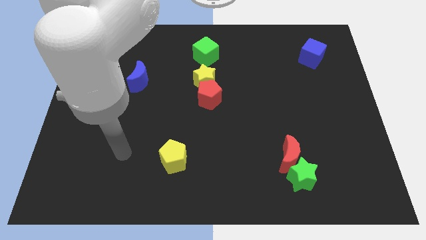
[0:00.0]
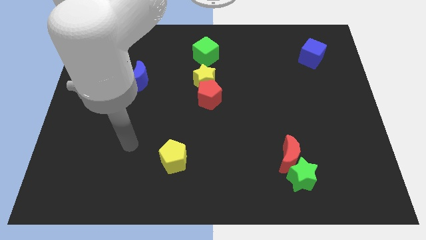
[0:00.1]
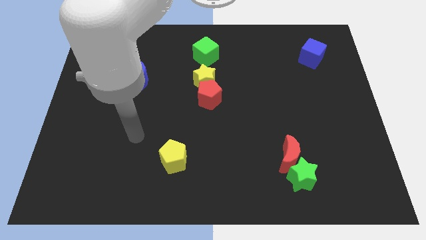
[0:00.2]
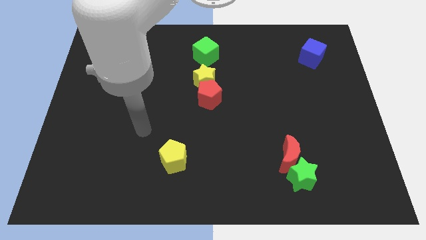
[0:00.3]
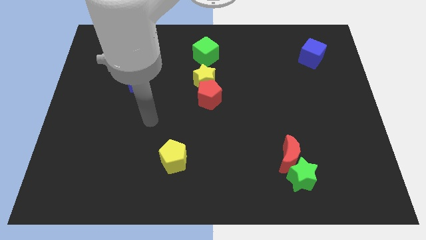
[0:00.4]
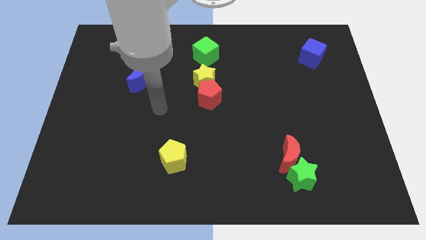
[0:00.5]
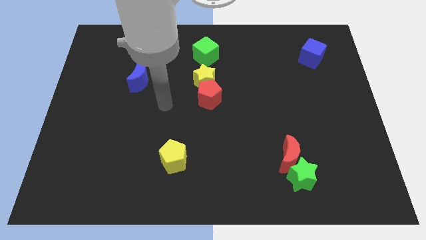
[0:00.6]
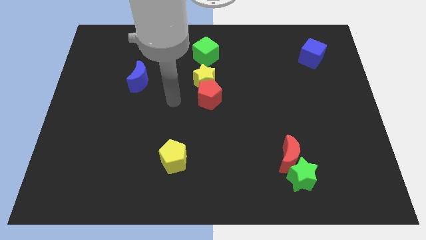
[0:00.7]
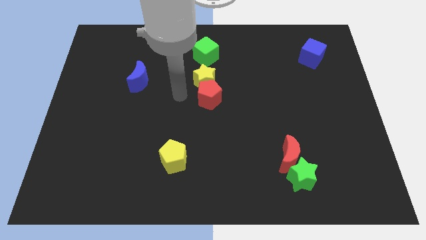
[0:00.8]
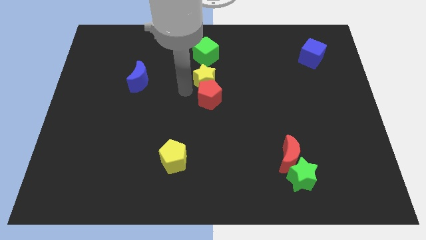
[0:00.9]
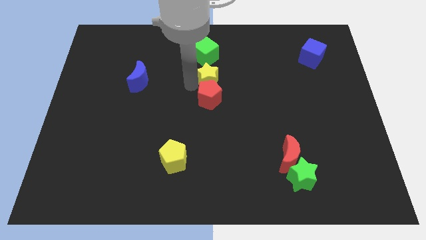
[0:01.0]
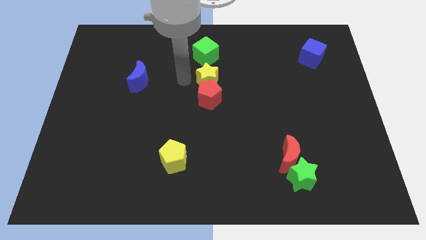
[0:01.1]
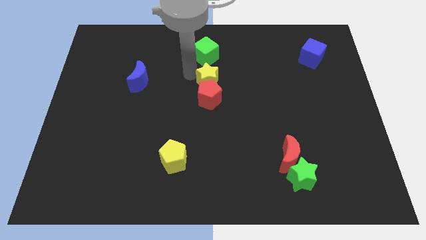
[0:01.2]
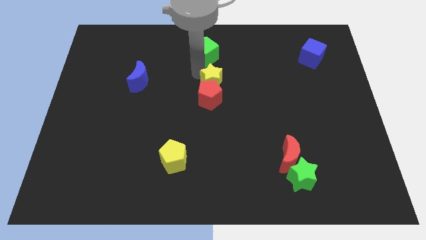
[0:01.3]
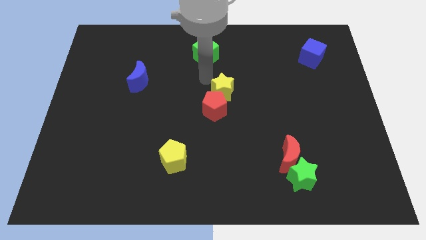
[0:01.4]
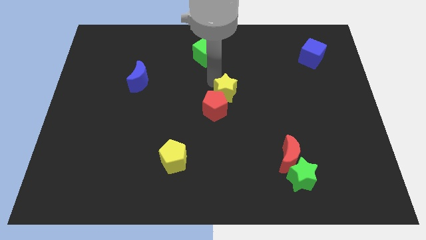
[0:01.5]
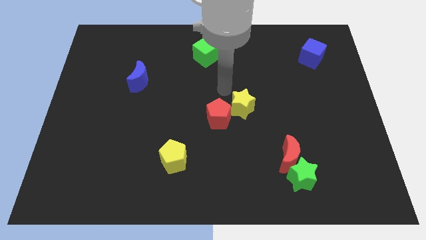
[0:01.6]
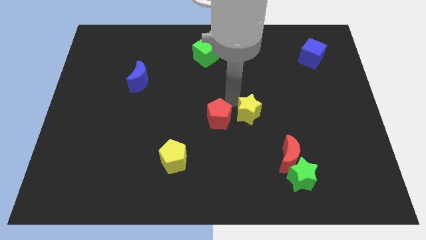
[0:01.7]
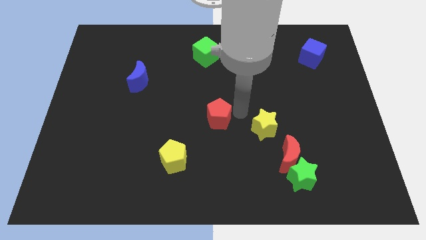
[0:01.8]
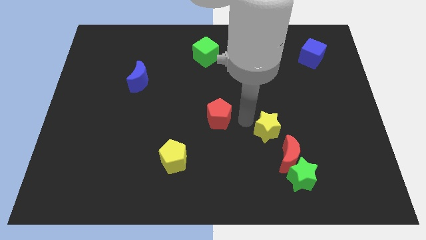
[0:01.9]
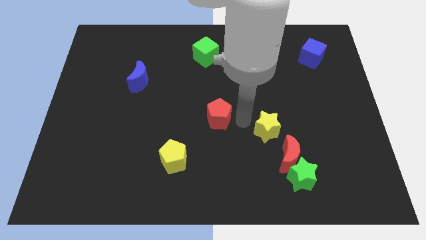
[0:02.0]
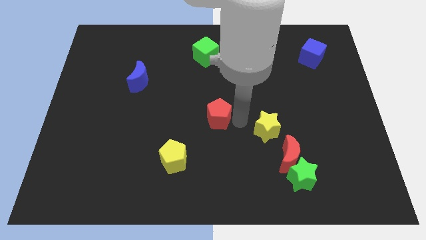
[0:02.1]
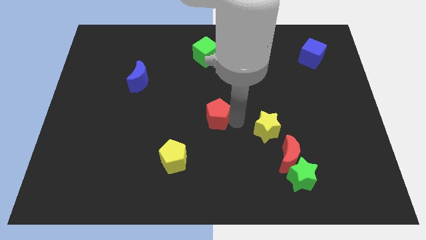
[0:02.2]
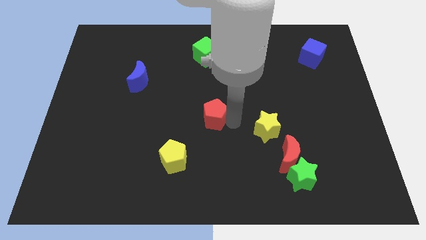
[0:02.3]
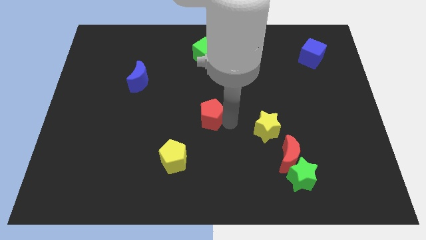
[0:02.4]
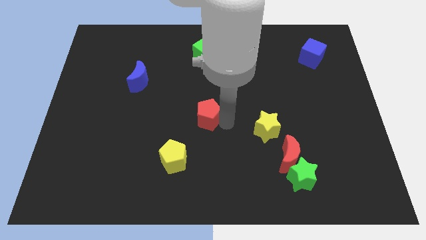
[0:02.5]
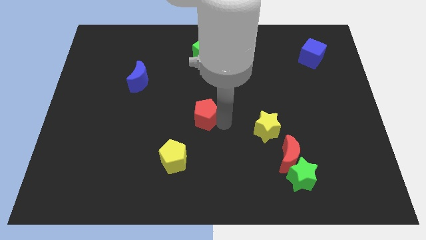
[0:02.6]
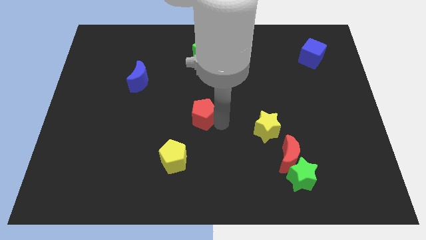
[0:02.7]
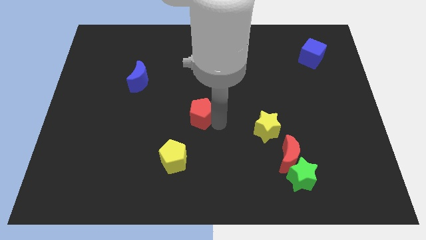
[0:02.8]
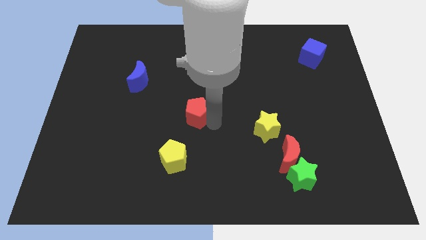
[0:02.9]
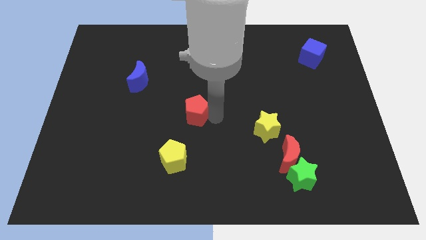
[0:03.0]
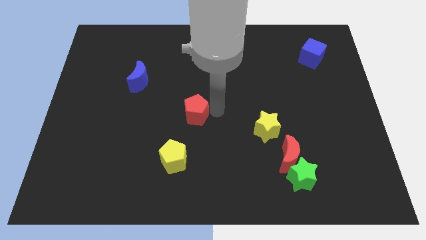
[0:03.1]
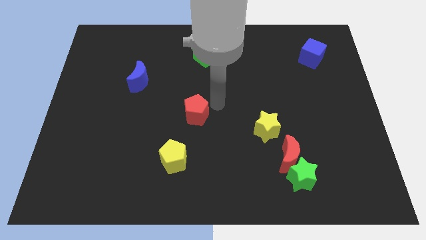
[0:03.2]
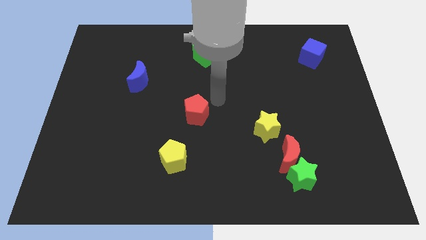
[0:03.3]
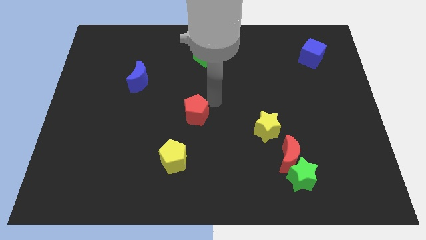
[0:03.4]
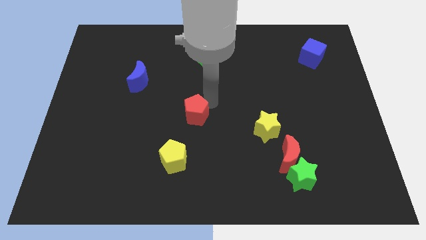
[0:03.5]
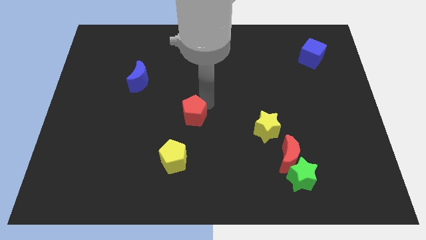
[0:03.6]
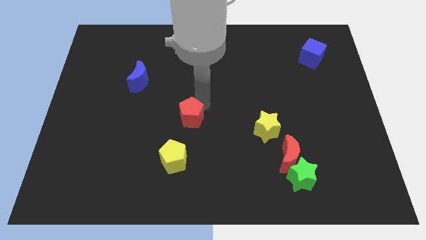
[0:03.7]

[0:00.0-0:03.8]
slightly move the red pentagon downwards and then left

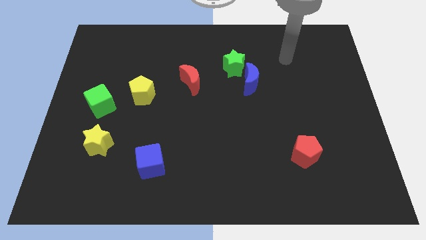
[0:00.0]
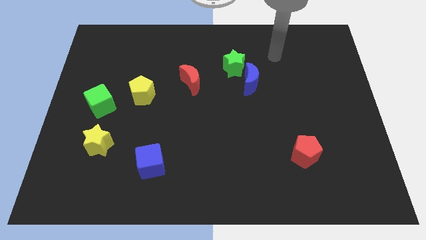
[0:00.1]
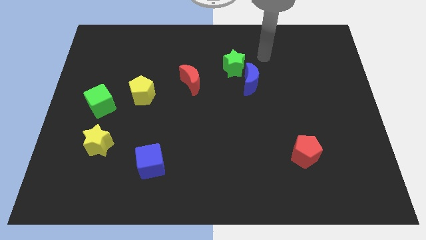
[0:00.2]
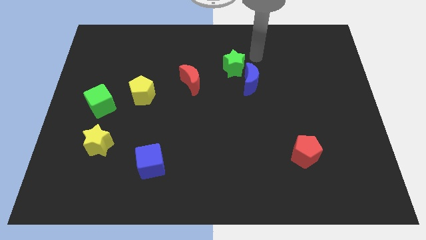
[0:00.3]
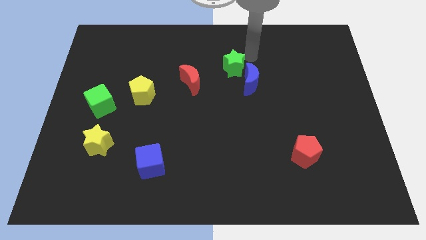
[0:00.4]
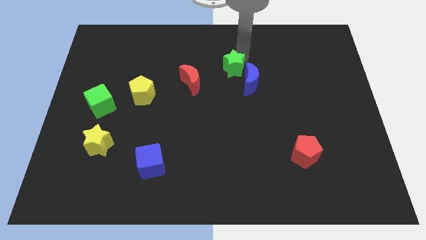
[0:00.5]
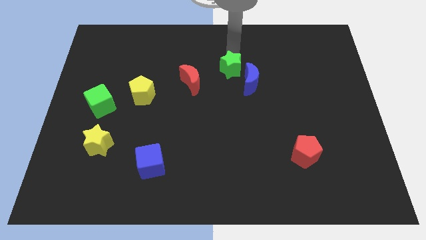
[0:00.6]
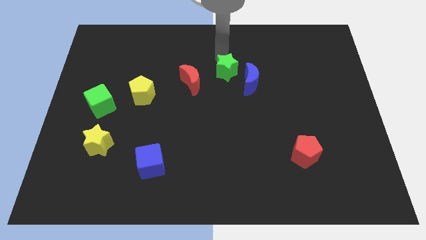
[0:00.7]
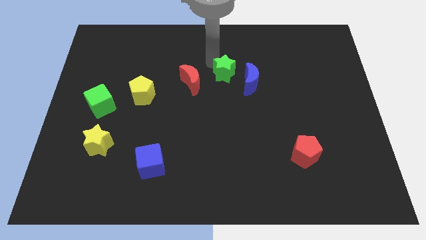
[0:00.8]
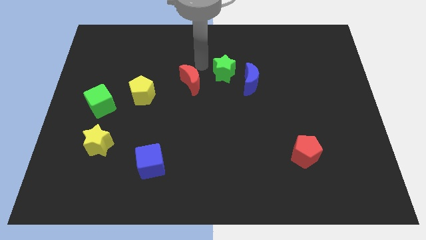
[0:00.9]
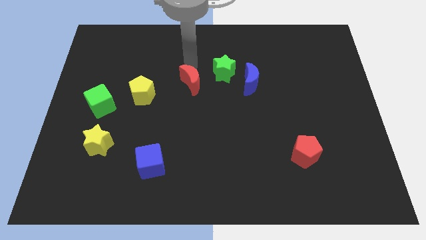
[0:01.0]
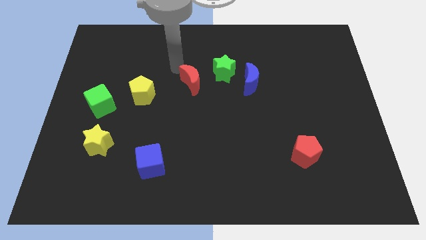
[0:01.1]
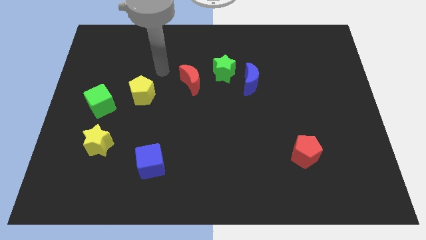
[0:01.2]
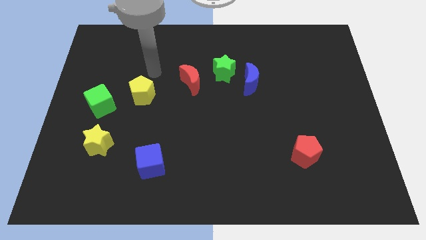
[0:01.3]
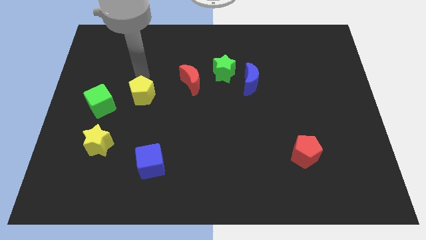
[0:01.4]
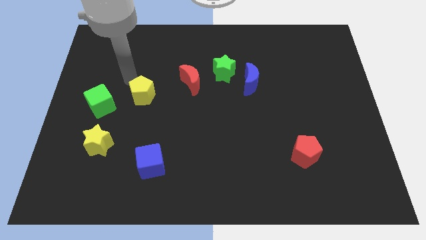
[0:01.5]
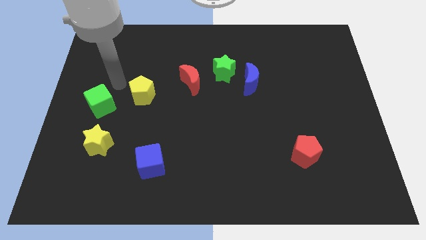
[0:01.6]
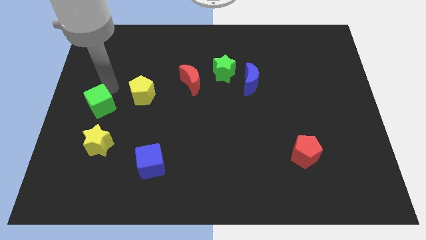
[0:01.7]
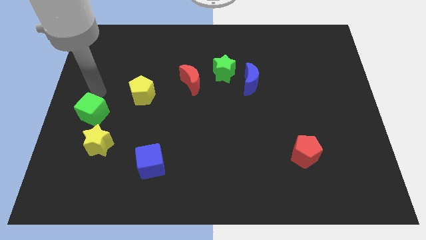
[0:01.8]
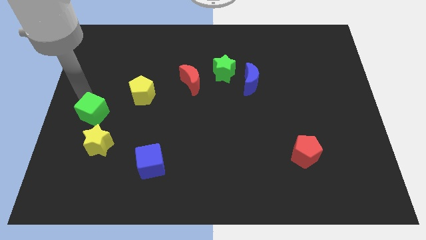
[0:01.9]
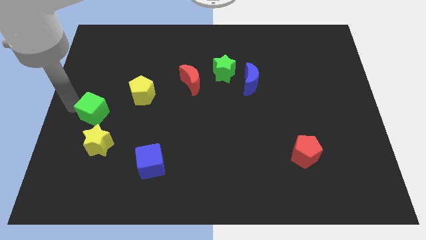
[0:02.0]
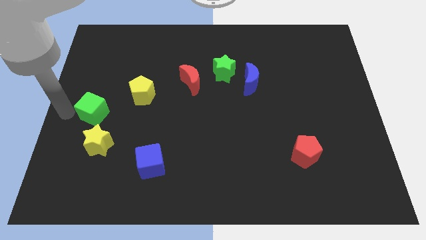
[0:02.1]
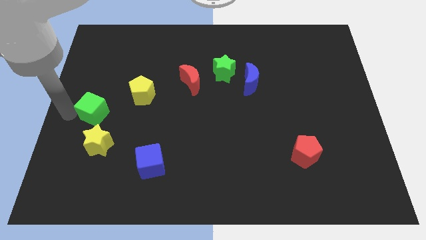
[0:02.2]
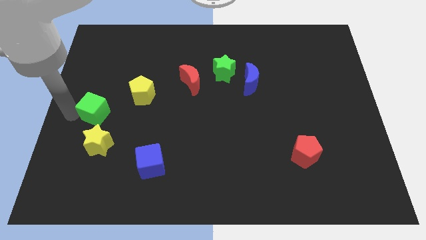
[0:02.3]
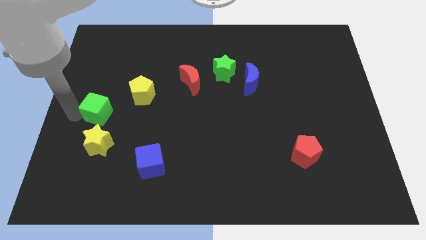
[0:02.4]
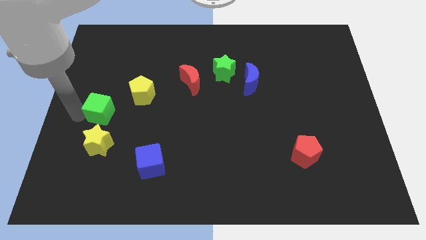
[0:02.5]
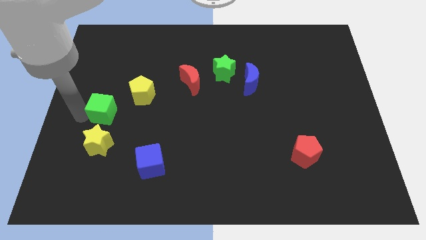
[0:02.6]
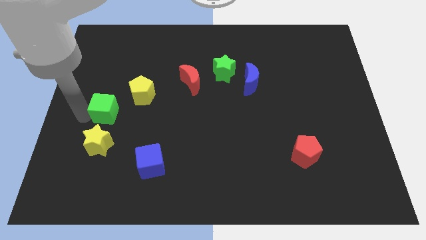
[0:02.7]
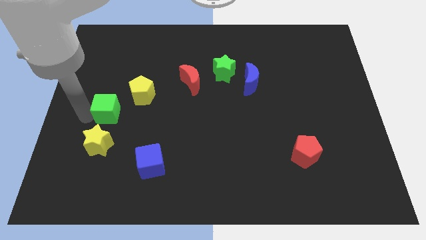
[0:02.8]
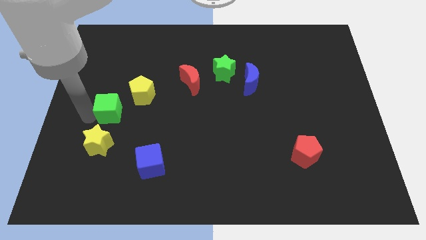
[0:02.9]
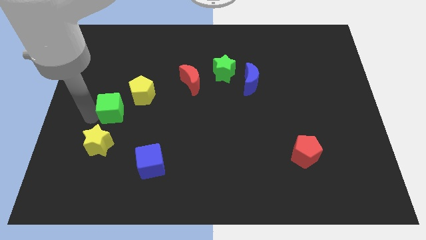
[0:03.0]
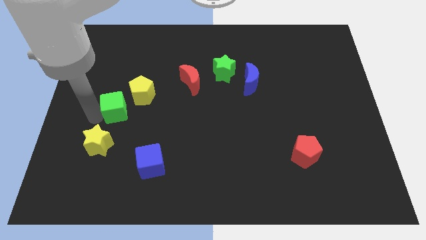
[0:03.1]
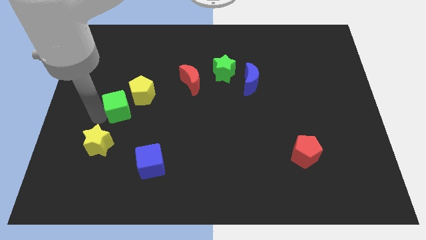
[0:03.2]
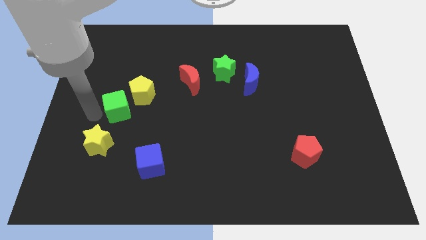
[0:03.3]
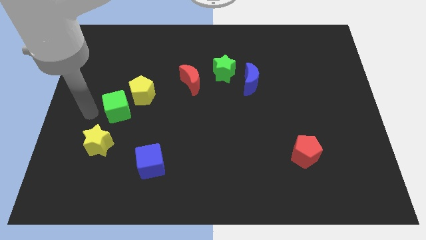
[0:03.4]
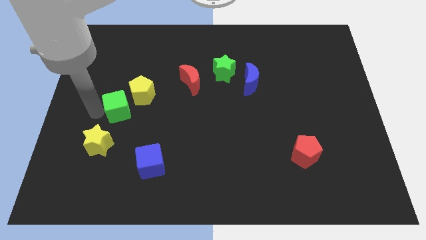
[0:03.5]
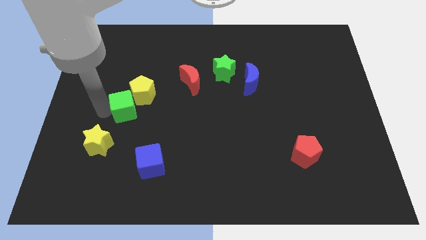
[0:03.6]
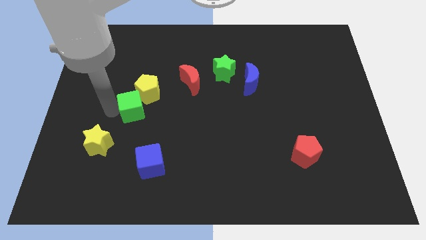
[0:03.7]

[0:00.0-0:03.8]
slide the green cube to the right somewhat

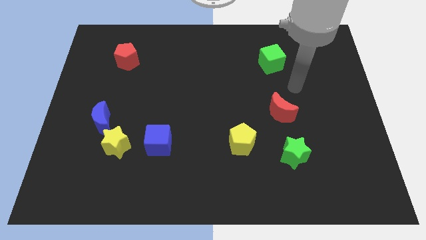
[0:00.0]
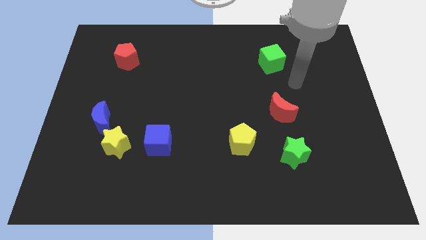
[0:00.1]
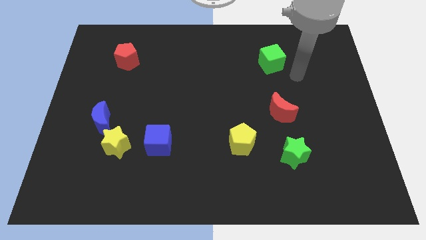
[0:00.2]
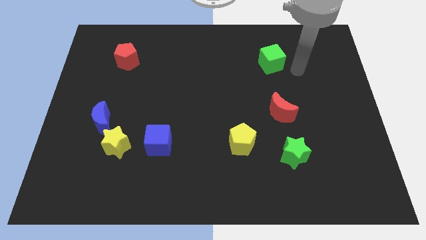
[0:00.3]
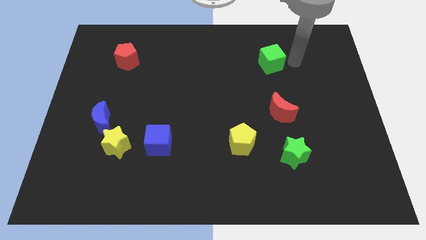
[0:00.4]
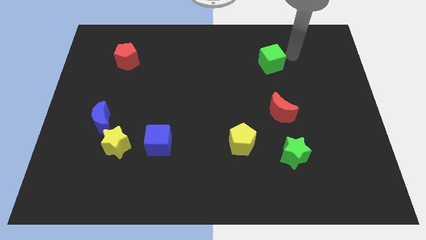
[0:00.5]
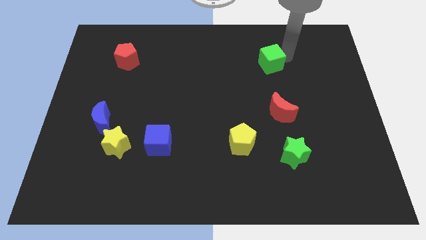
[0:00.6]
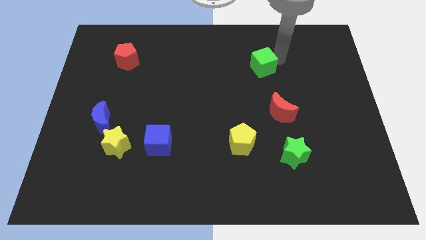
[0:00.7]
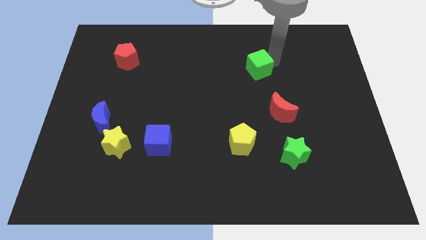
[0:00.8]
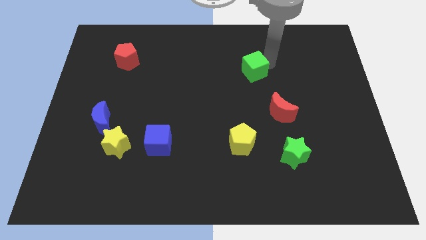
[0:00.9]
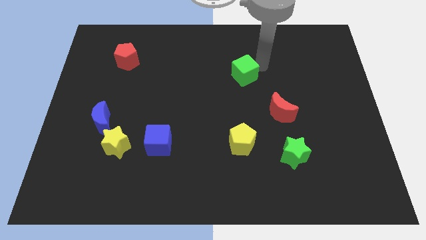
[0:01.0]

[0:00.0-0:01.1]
slightly move the green cube down and then to the left
